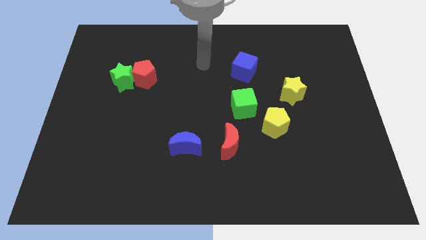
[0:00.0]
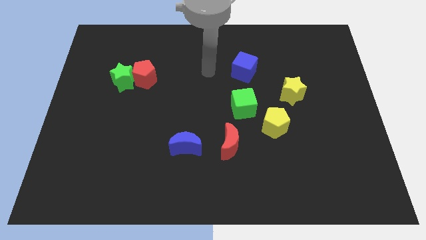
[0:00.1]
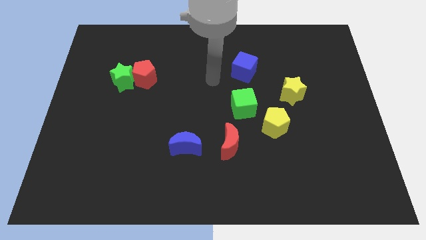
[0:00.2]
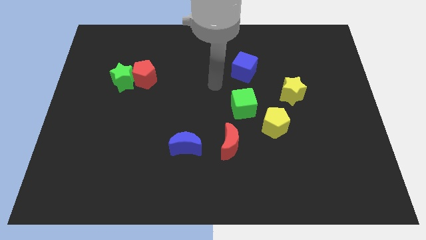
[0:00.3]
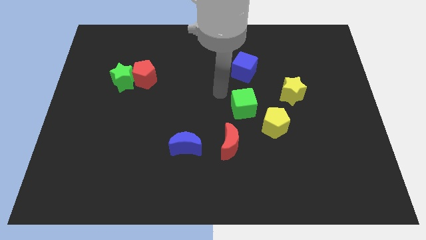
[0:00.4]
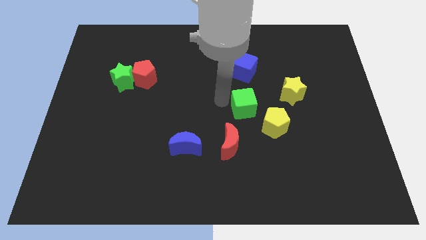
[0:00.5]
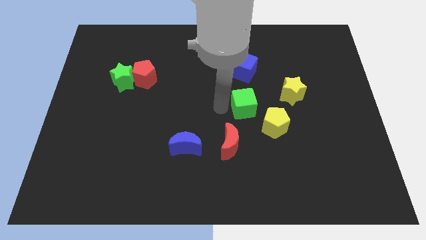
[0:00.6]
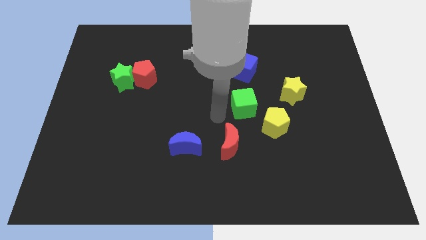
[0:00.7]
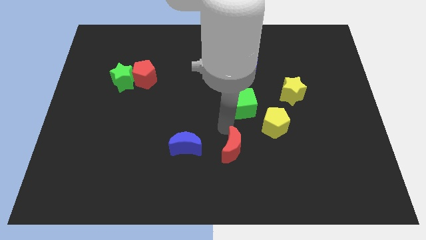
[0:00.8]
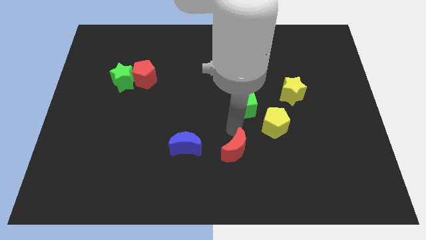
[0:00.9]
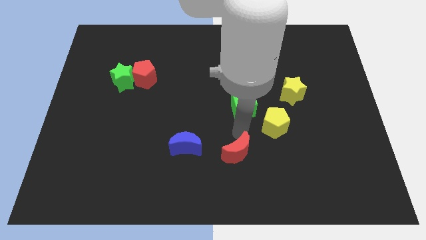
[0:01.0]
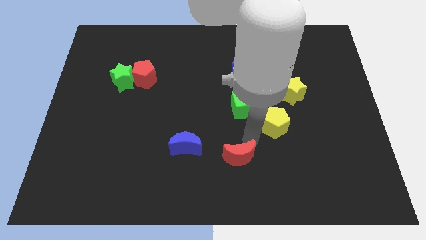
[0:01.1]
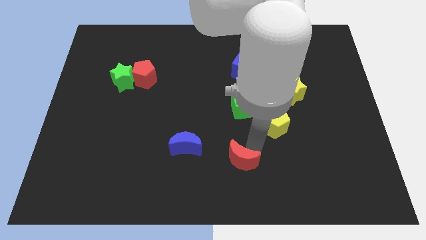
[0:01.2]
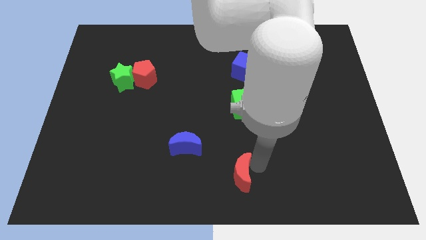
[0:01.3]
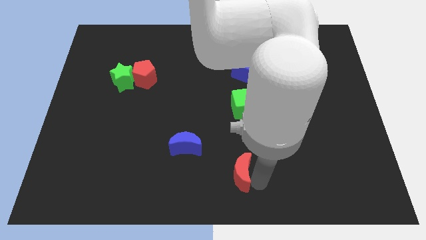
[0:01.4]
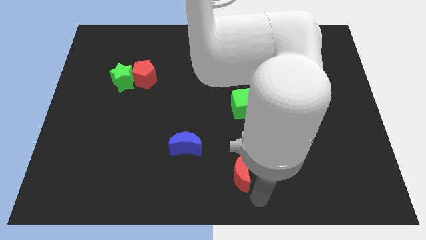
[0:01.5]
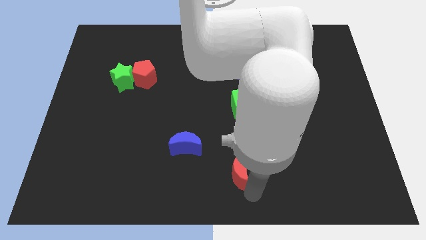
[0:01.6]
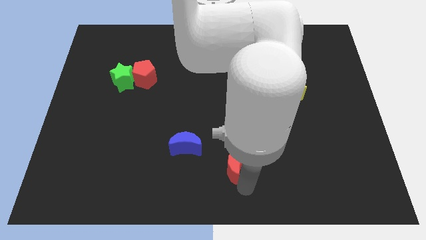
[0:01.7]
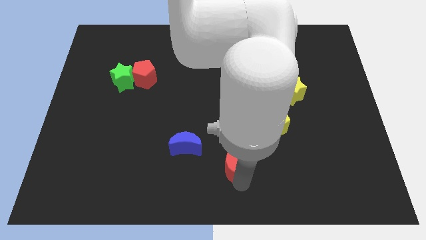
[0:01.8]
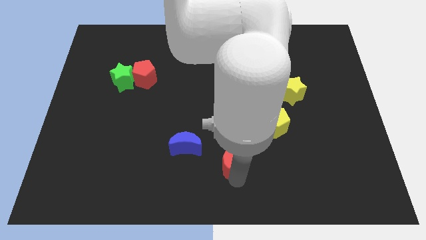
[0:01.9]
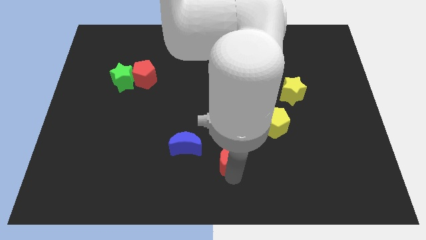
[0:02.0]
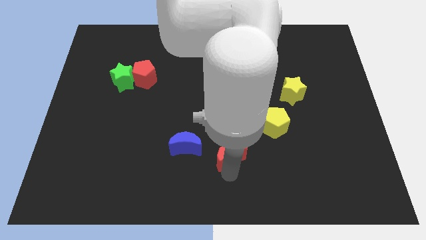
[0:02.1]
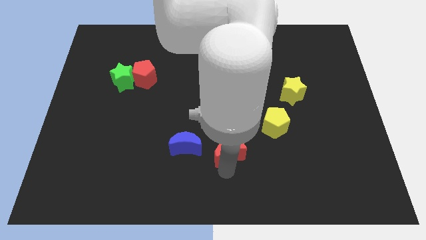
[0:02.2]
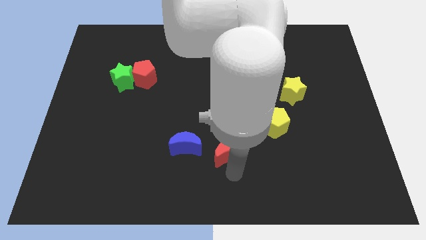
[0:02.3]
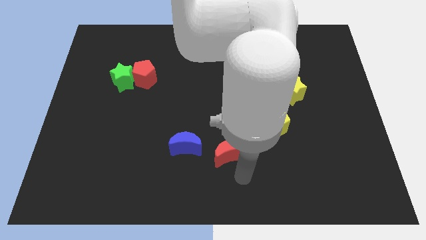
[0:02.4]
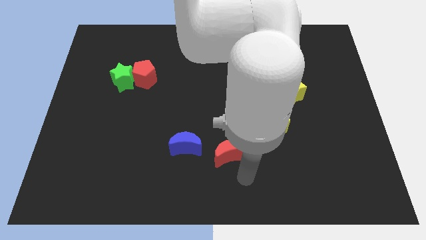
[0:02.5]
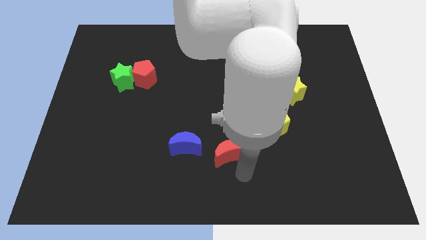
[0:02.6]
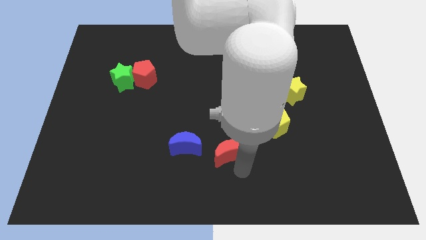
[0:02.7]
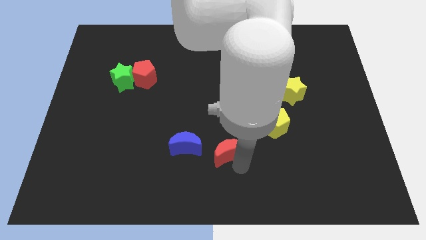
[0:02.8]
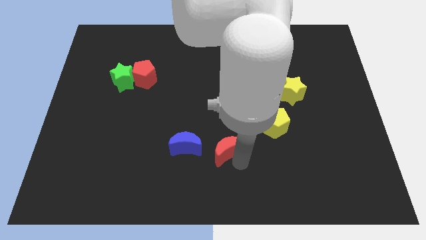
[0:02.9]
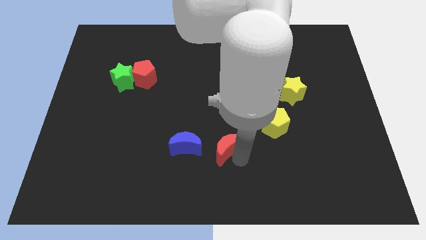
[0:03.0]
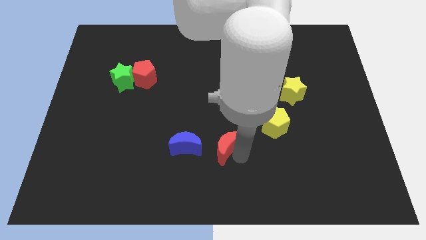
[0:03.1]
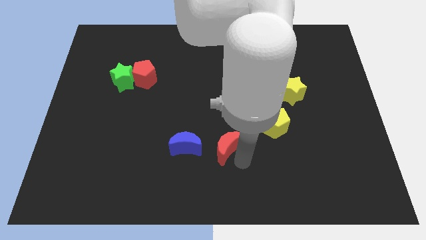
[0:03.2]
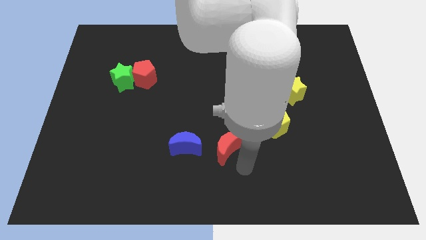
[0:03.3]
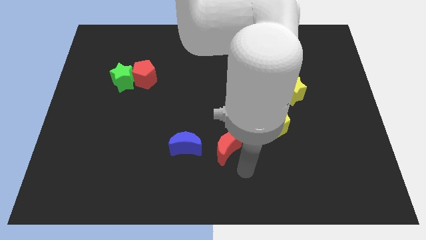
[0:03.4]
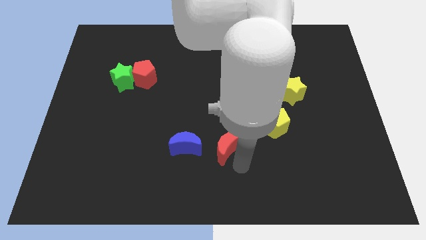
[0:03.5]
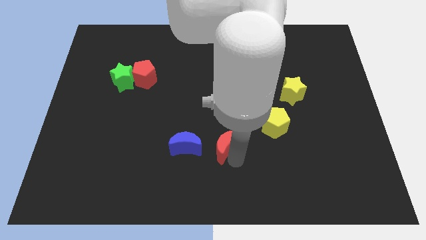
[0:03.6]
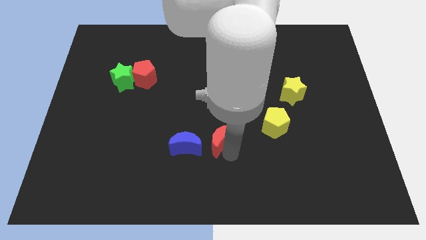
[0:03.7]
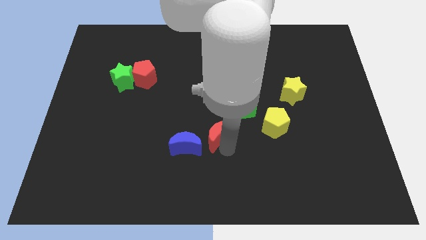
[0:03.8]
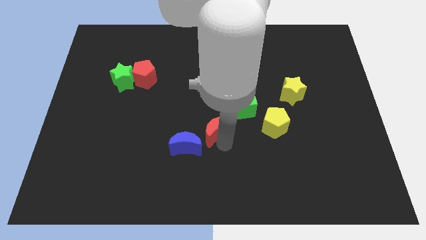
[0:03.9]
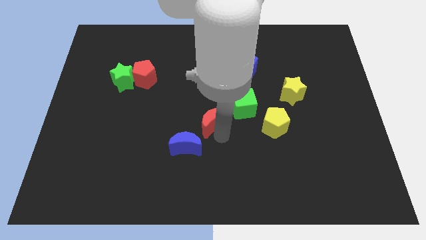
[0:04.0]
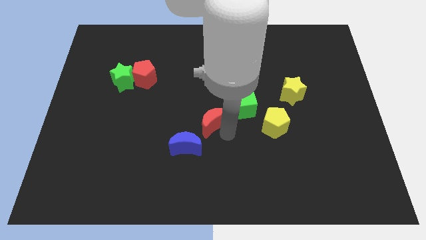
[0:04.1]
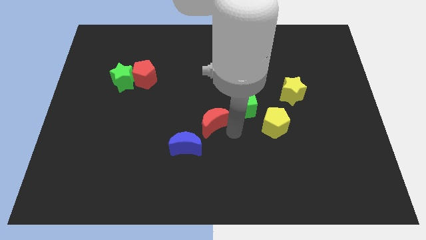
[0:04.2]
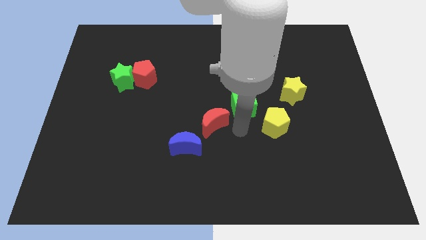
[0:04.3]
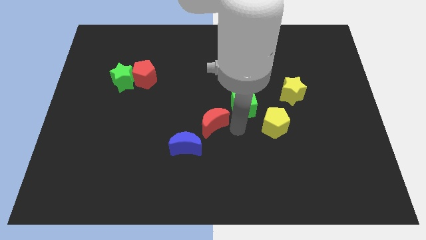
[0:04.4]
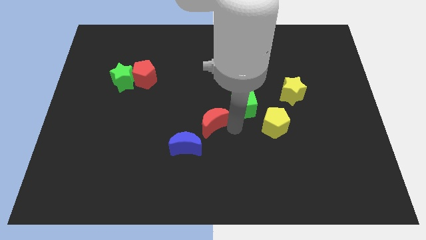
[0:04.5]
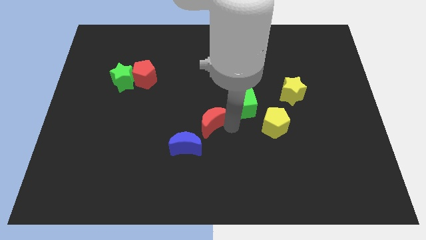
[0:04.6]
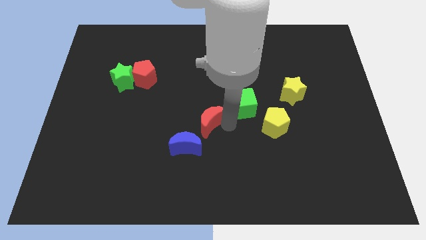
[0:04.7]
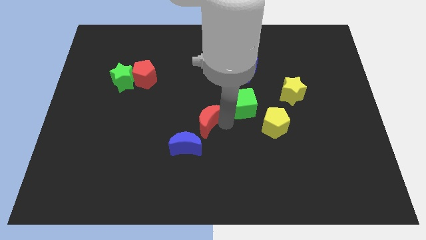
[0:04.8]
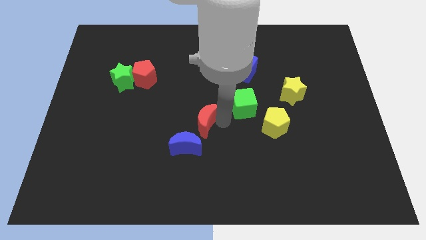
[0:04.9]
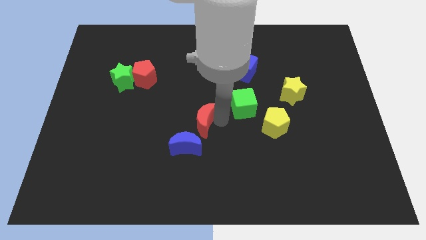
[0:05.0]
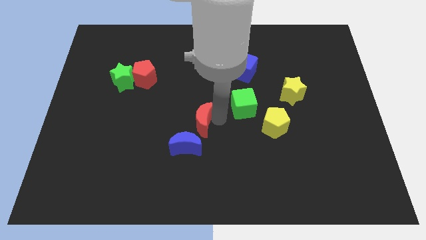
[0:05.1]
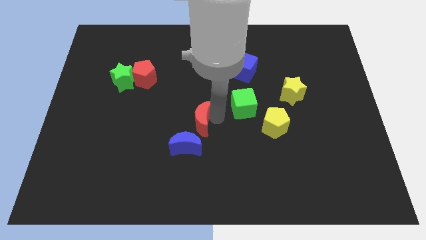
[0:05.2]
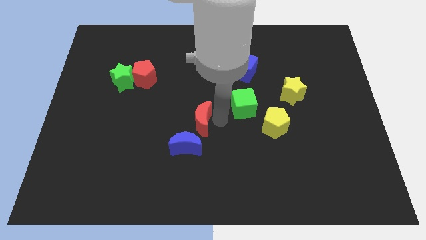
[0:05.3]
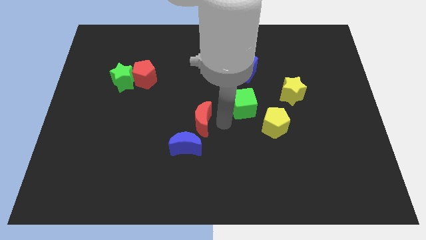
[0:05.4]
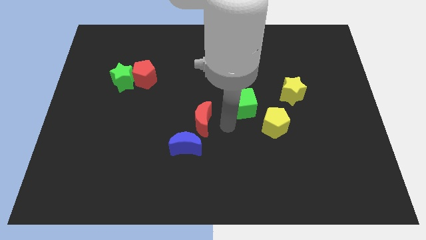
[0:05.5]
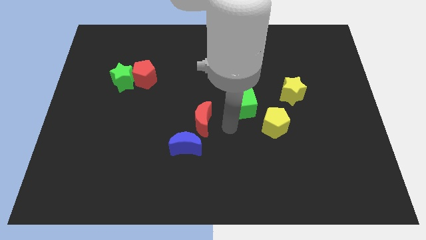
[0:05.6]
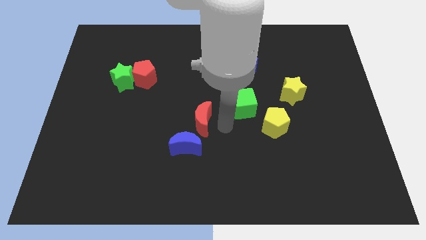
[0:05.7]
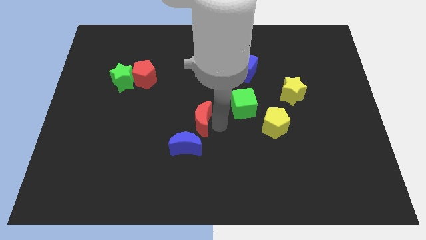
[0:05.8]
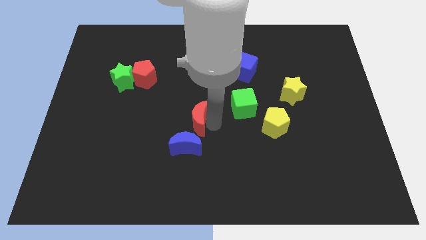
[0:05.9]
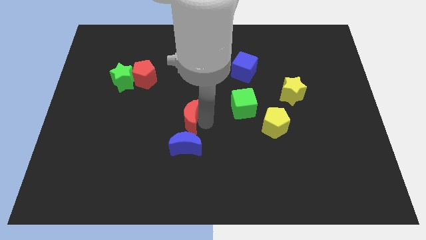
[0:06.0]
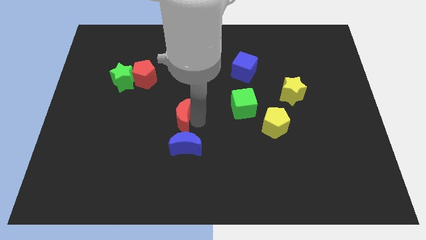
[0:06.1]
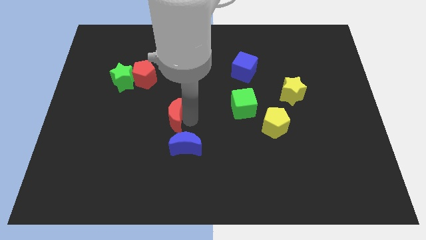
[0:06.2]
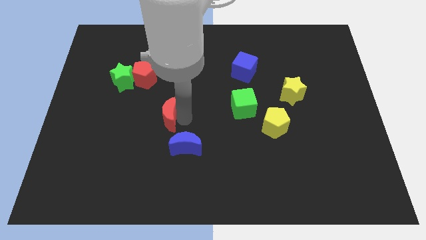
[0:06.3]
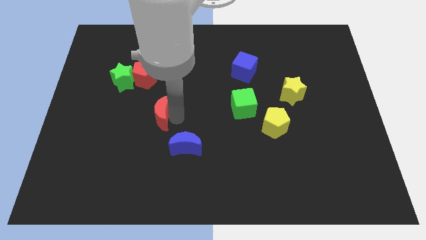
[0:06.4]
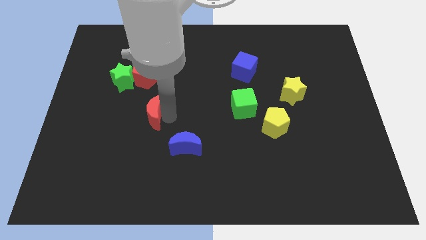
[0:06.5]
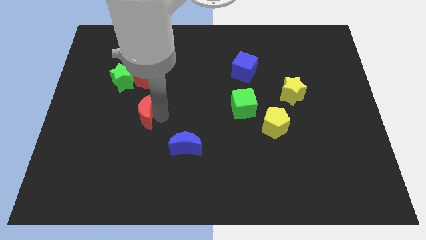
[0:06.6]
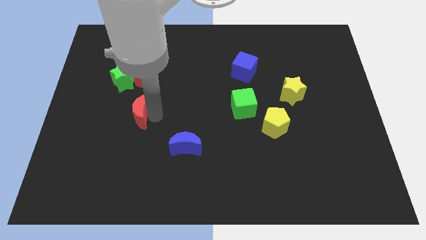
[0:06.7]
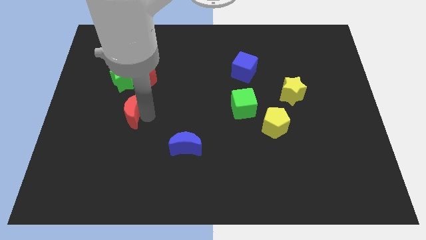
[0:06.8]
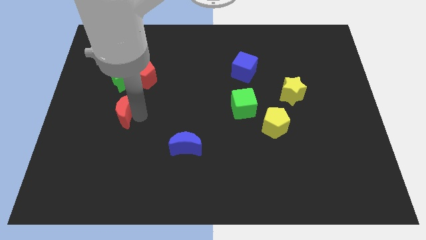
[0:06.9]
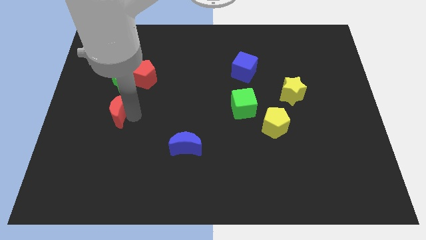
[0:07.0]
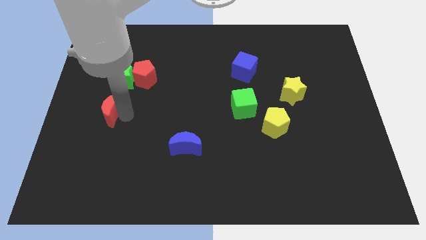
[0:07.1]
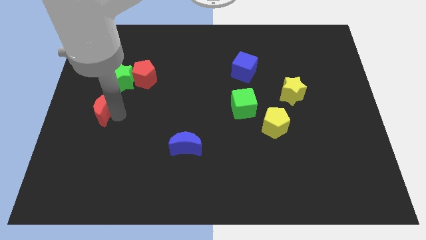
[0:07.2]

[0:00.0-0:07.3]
put the red moon to the center left
